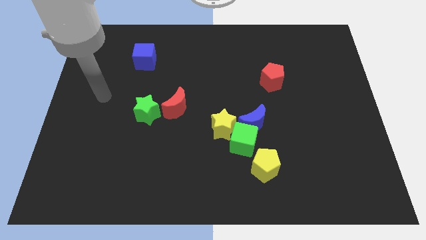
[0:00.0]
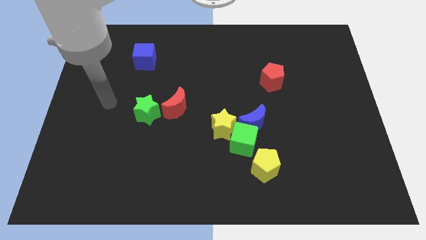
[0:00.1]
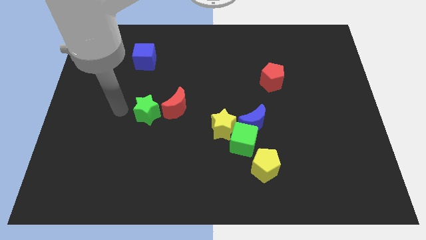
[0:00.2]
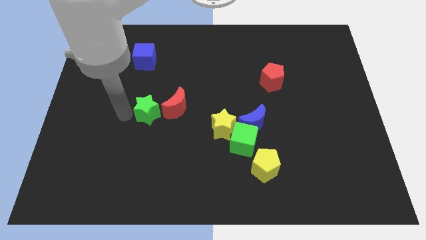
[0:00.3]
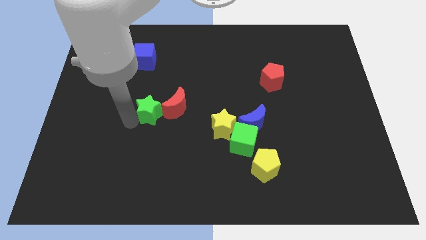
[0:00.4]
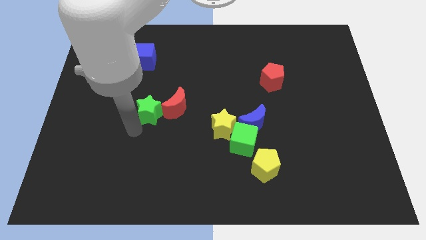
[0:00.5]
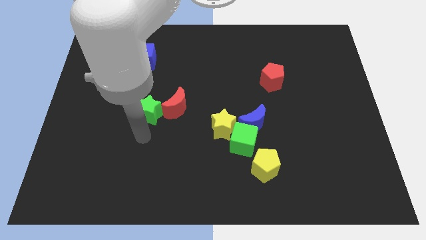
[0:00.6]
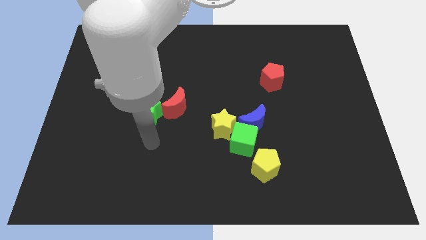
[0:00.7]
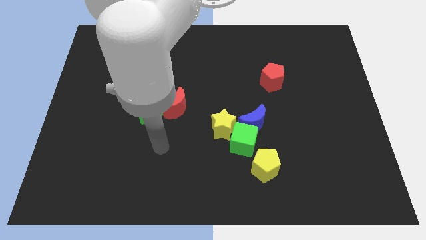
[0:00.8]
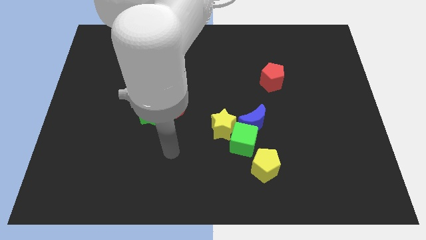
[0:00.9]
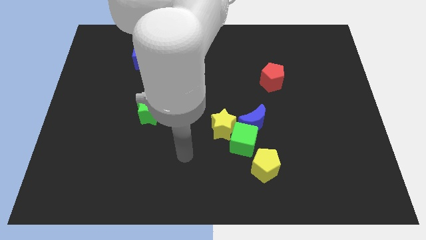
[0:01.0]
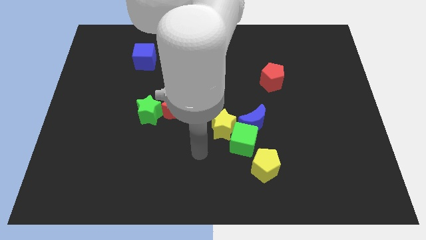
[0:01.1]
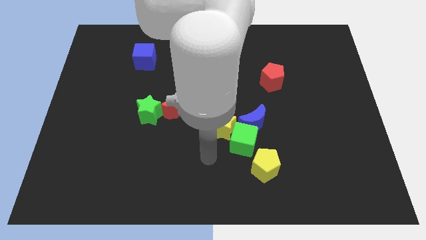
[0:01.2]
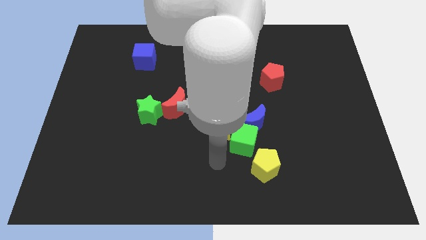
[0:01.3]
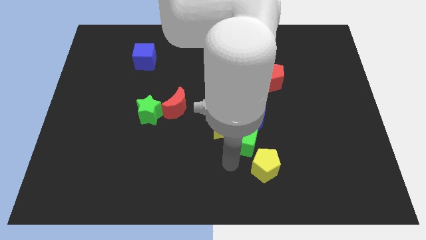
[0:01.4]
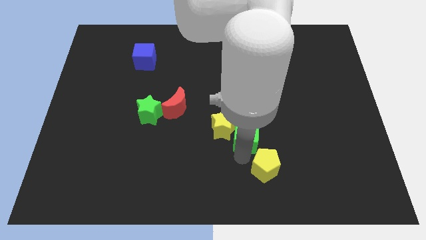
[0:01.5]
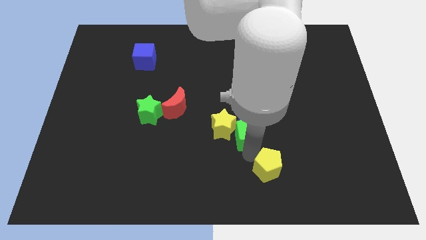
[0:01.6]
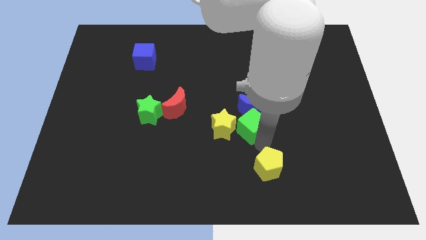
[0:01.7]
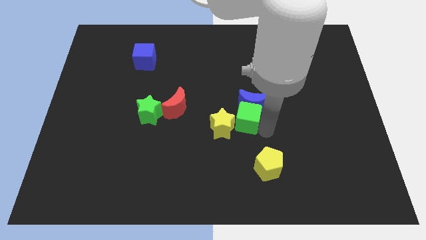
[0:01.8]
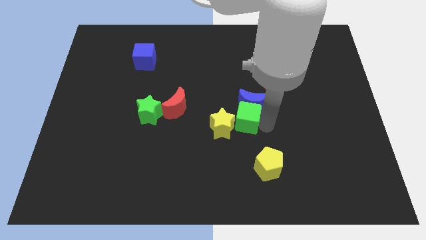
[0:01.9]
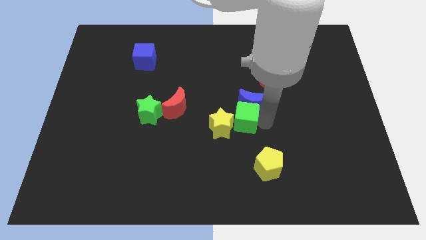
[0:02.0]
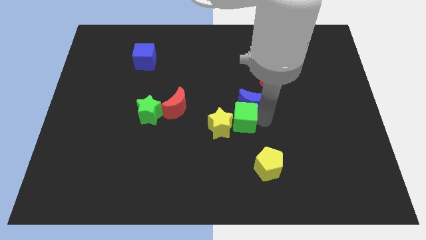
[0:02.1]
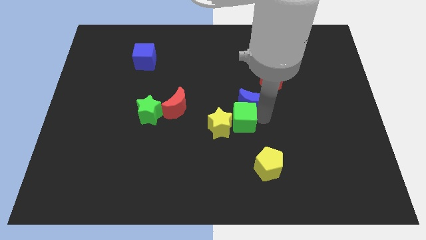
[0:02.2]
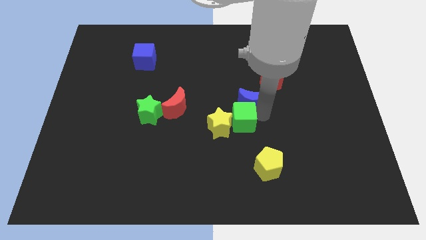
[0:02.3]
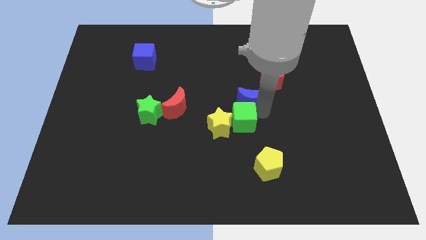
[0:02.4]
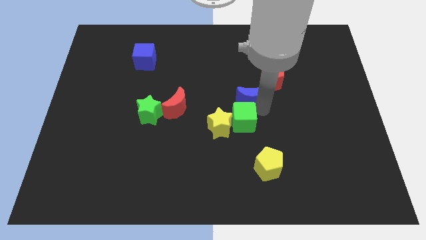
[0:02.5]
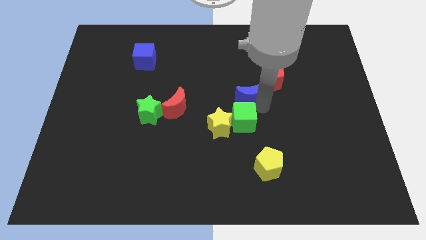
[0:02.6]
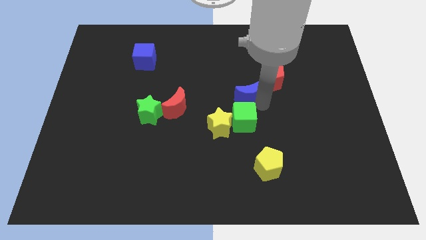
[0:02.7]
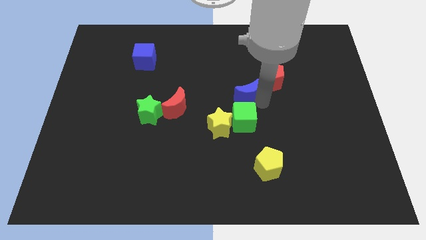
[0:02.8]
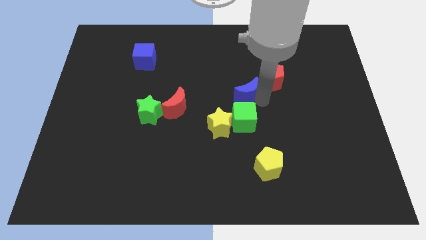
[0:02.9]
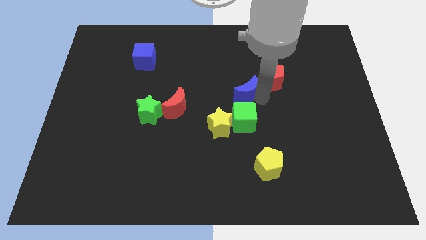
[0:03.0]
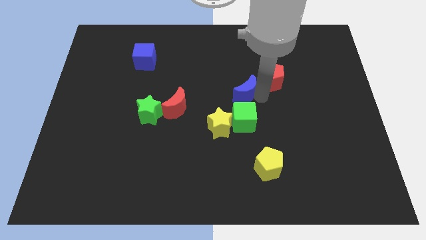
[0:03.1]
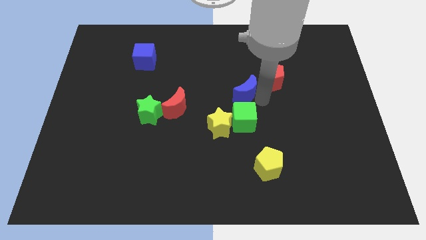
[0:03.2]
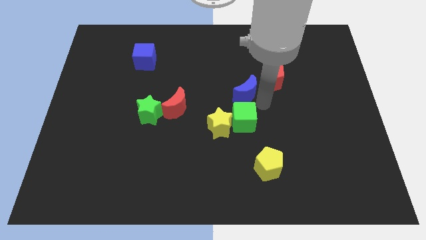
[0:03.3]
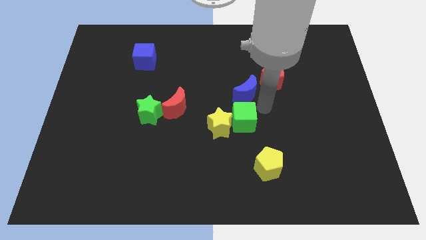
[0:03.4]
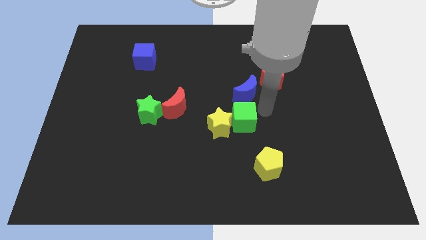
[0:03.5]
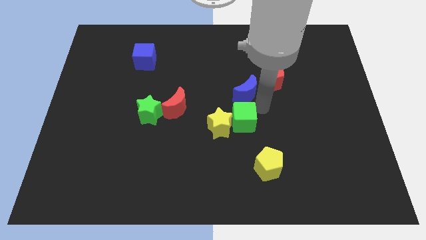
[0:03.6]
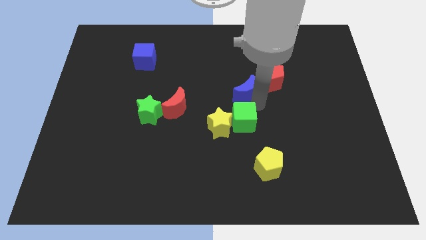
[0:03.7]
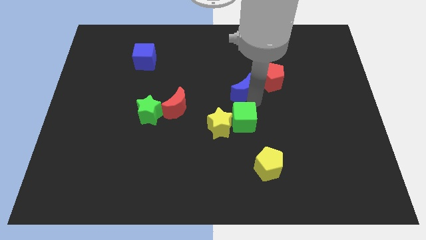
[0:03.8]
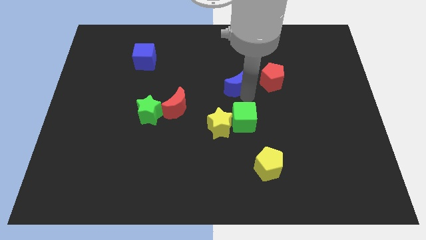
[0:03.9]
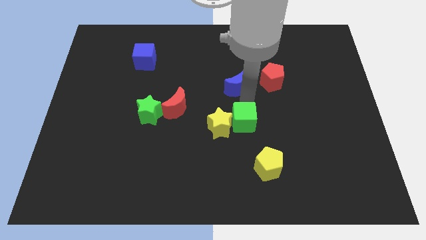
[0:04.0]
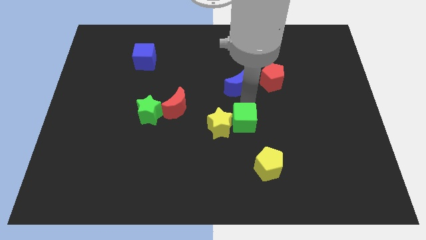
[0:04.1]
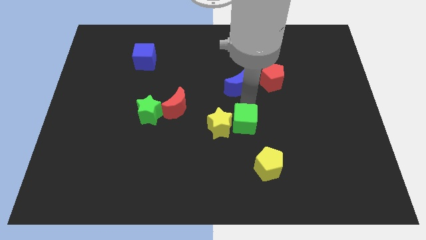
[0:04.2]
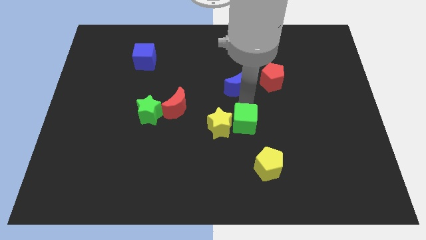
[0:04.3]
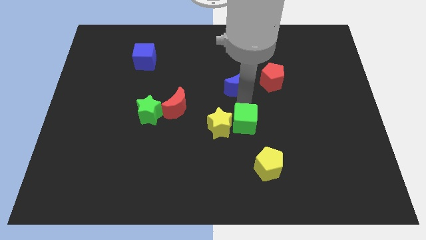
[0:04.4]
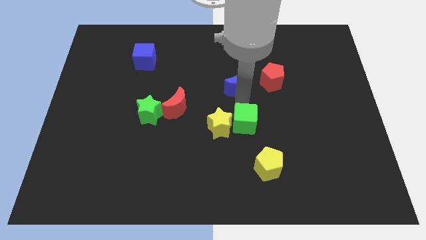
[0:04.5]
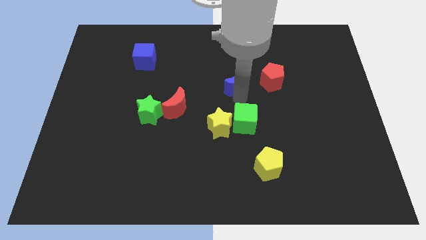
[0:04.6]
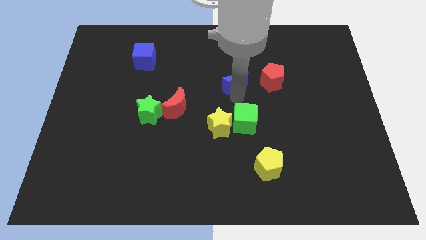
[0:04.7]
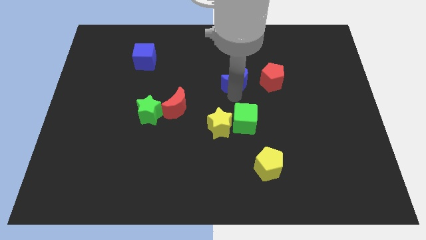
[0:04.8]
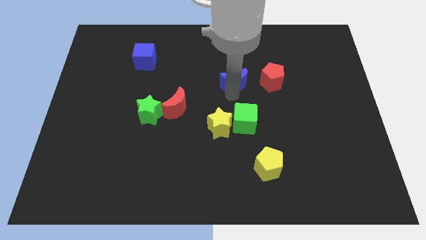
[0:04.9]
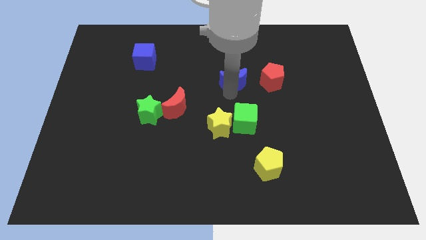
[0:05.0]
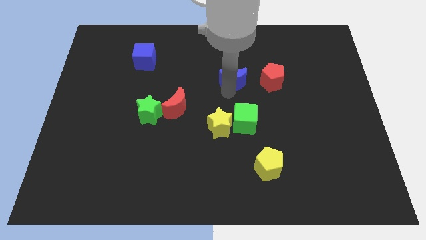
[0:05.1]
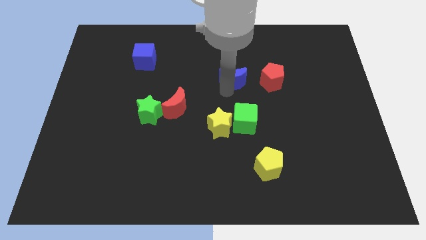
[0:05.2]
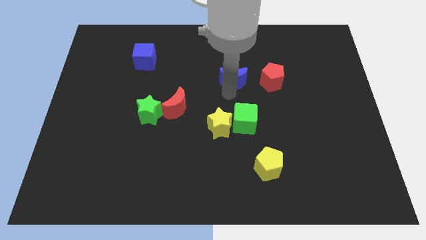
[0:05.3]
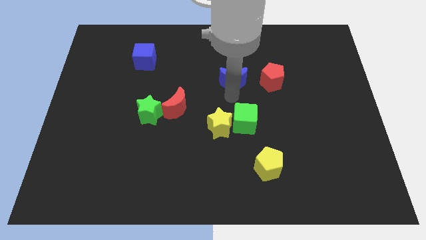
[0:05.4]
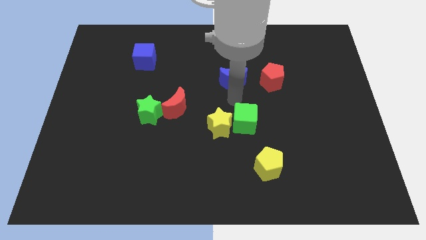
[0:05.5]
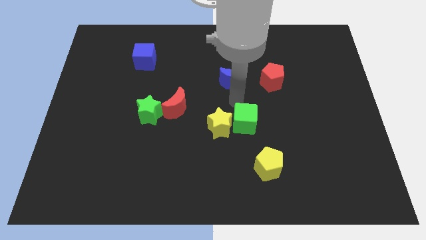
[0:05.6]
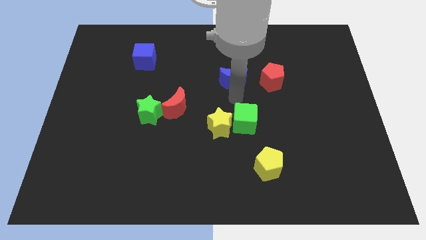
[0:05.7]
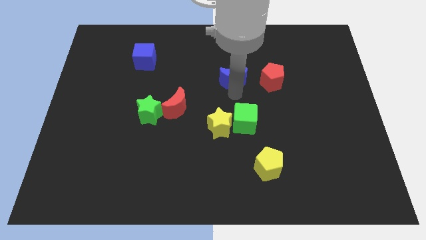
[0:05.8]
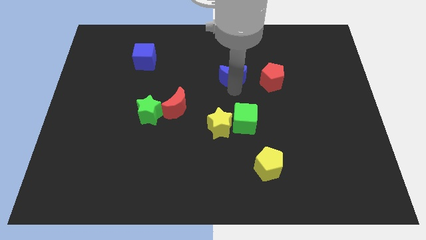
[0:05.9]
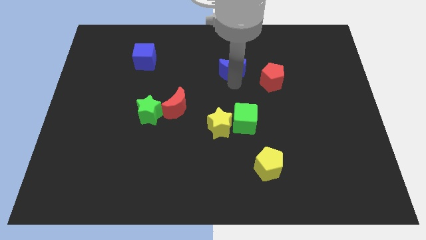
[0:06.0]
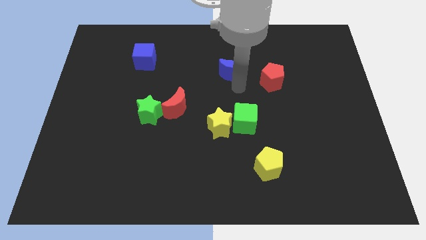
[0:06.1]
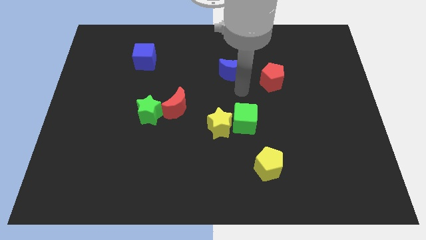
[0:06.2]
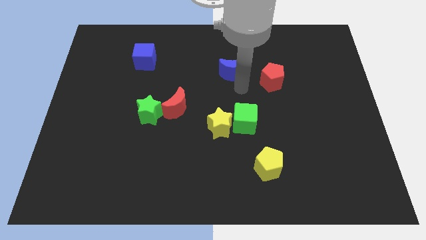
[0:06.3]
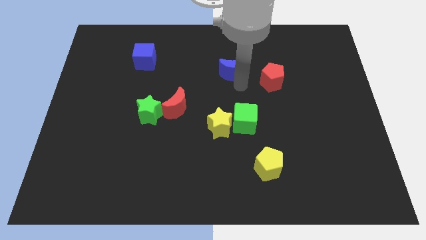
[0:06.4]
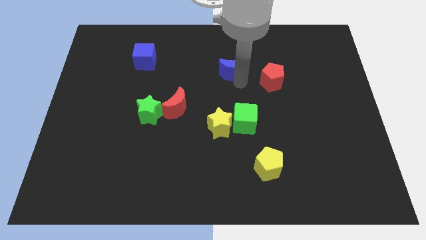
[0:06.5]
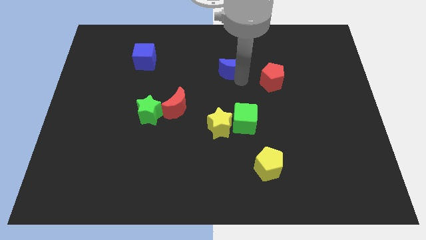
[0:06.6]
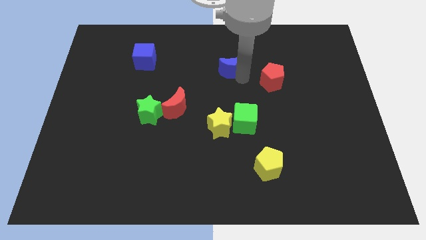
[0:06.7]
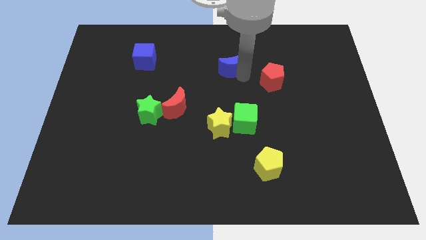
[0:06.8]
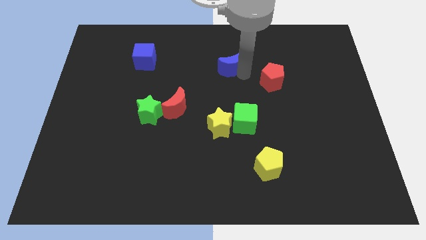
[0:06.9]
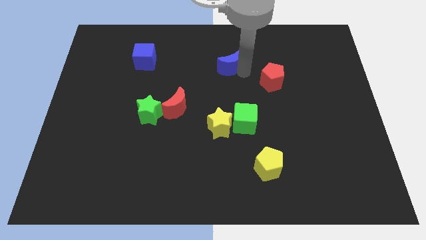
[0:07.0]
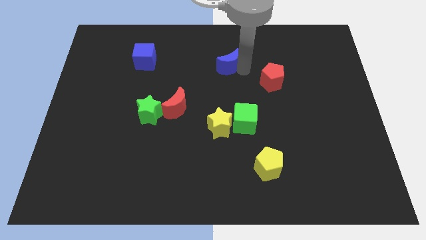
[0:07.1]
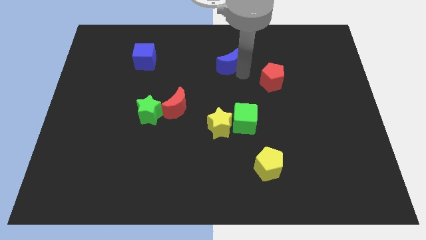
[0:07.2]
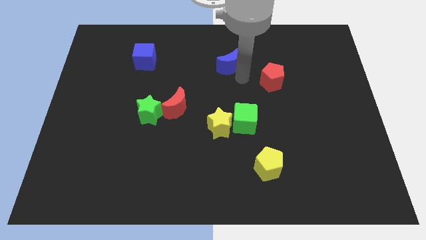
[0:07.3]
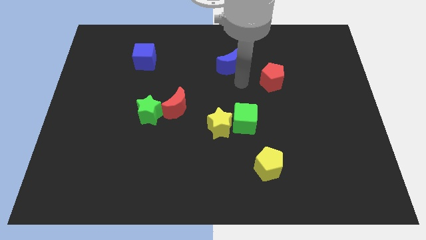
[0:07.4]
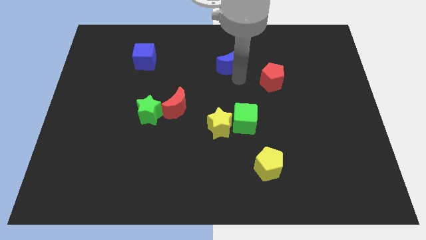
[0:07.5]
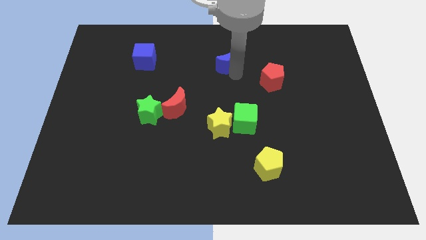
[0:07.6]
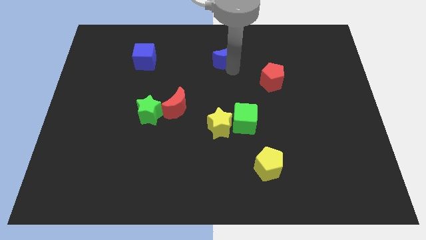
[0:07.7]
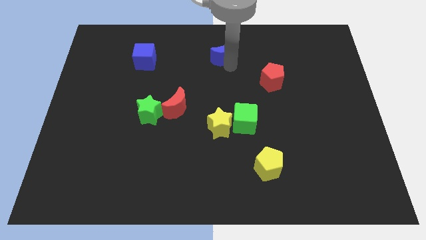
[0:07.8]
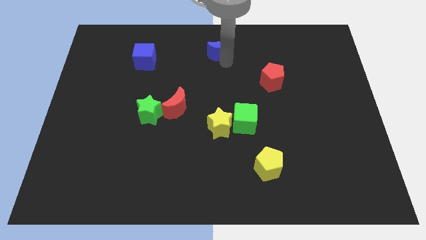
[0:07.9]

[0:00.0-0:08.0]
slide the blue moon to the top
